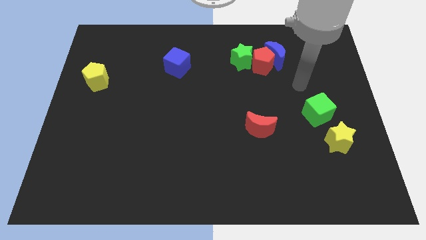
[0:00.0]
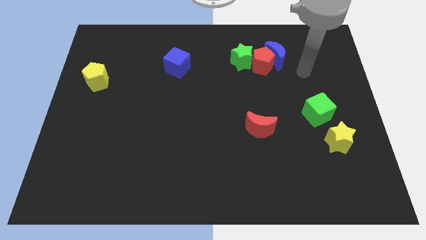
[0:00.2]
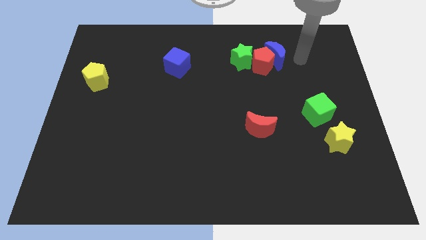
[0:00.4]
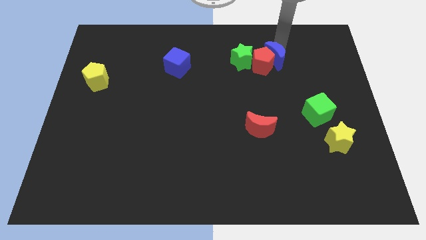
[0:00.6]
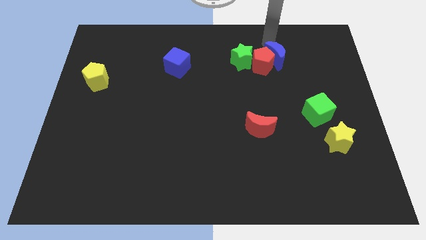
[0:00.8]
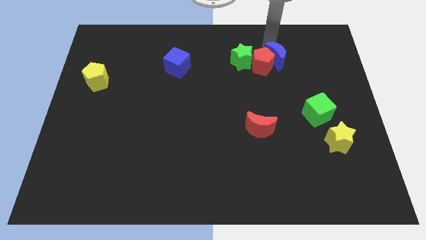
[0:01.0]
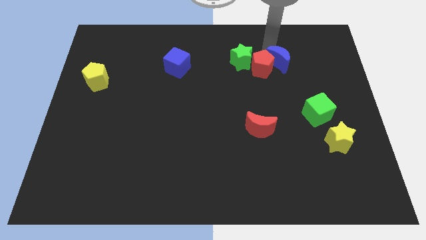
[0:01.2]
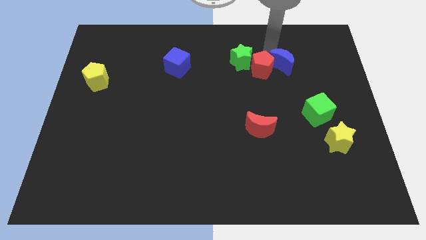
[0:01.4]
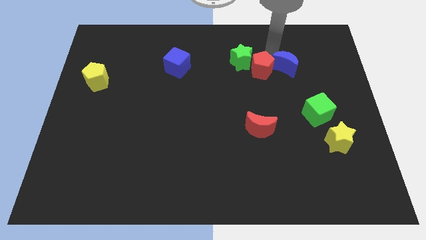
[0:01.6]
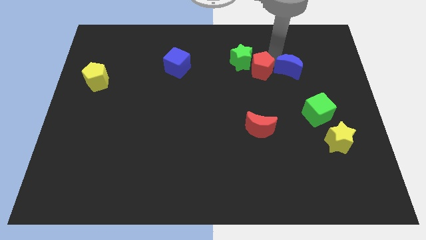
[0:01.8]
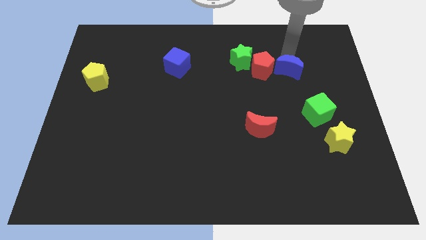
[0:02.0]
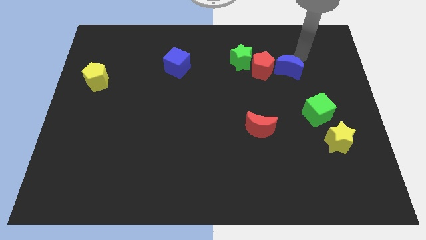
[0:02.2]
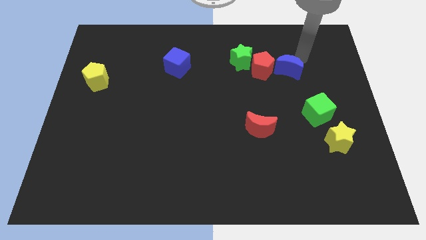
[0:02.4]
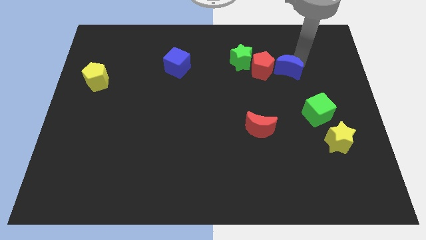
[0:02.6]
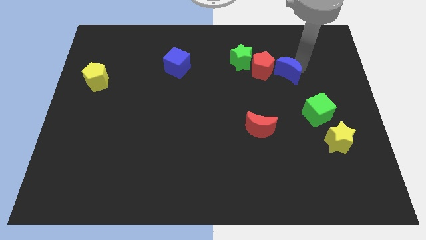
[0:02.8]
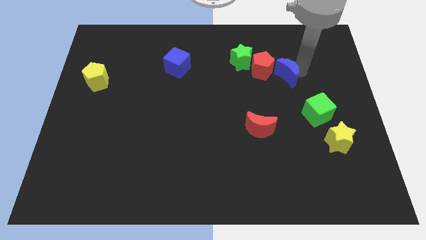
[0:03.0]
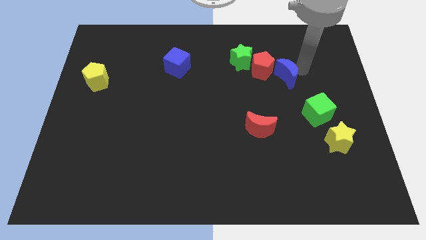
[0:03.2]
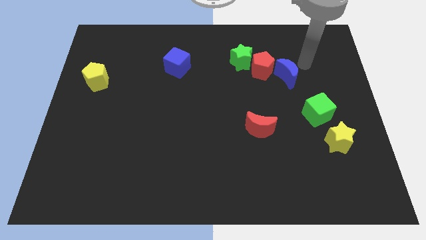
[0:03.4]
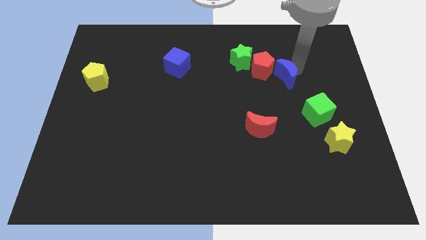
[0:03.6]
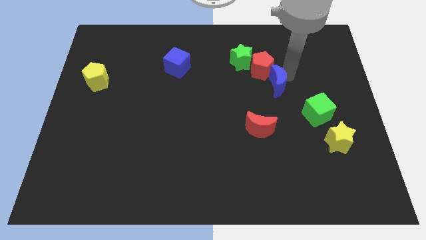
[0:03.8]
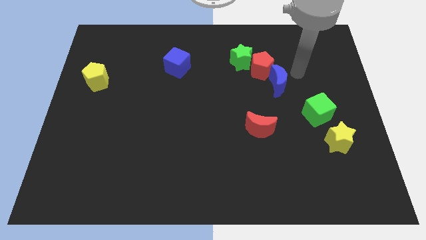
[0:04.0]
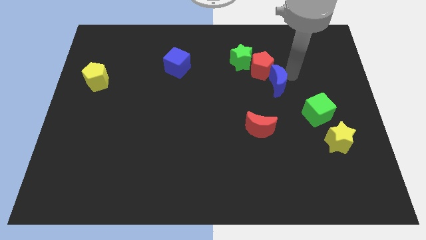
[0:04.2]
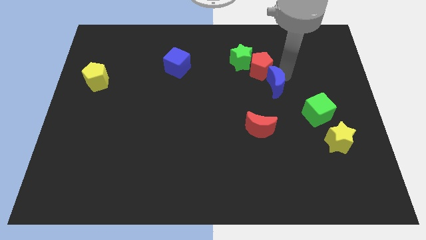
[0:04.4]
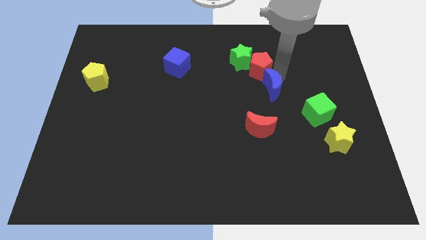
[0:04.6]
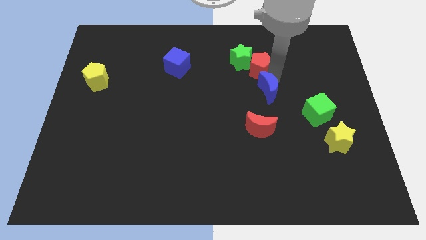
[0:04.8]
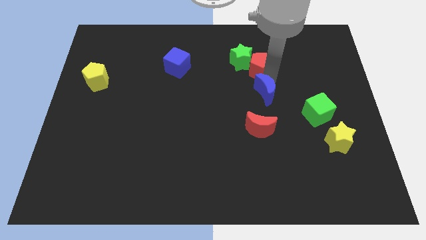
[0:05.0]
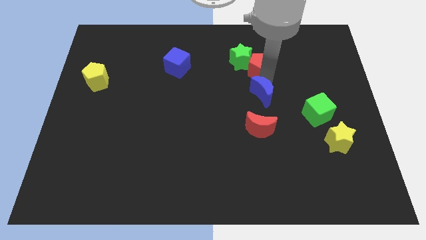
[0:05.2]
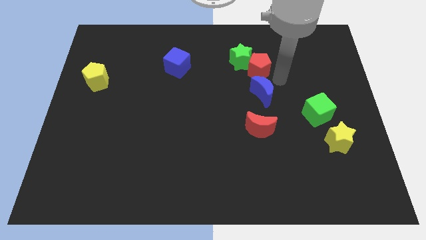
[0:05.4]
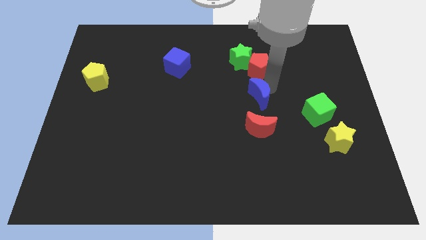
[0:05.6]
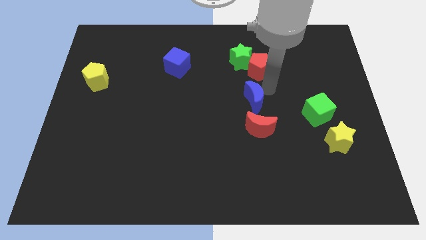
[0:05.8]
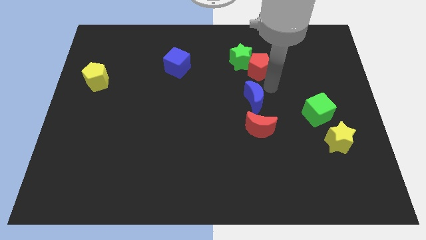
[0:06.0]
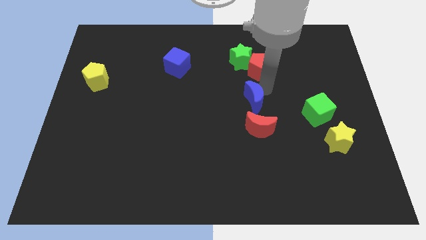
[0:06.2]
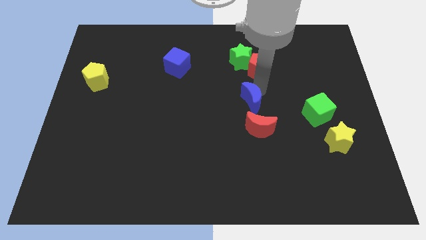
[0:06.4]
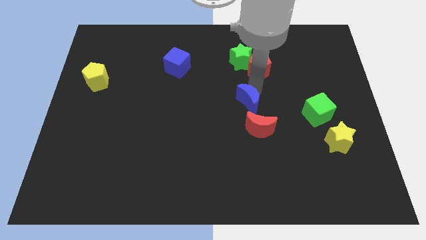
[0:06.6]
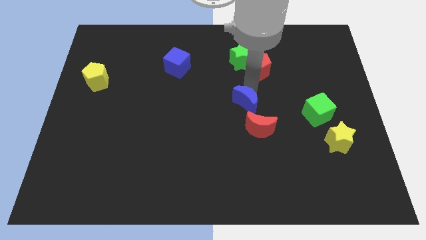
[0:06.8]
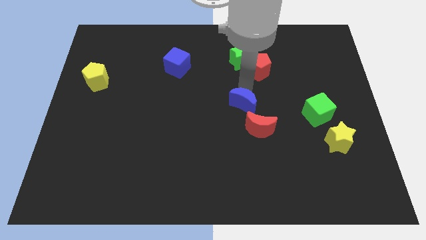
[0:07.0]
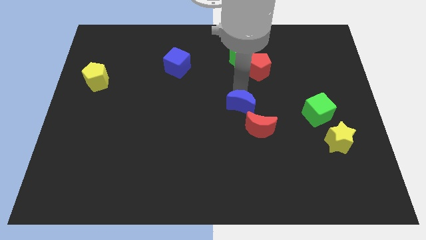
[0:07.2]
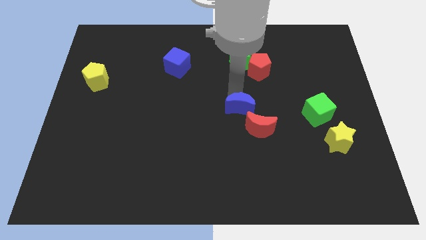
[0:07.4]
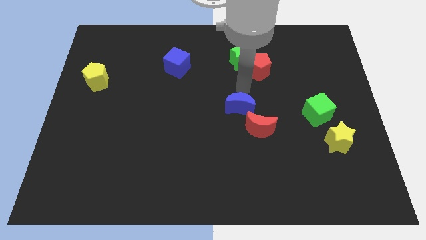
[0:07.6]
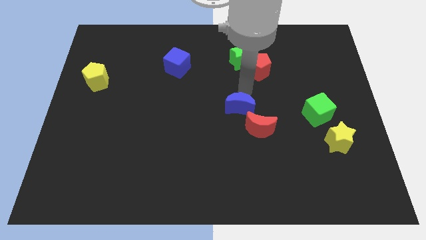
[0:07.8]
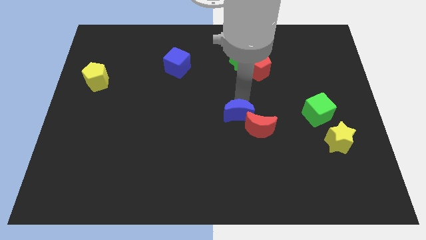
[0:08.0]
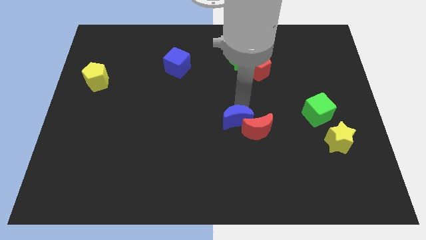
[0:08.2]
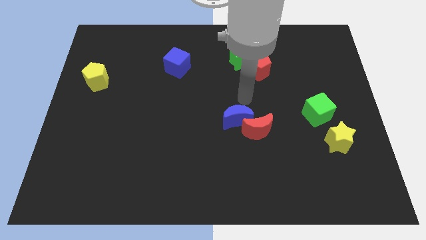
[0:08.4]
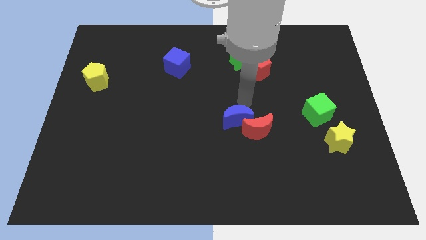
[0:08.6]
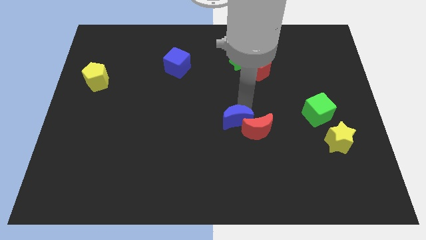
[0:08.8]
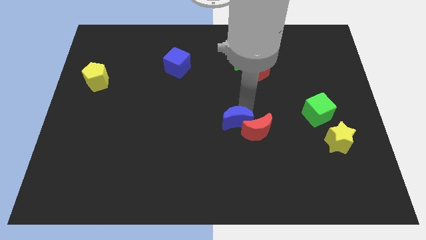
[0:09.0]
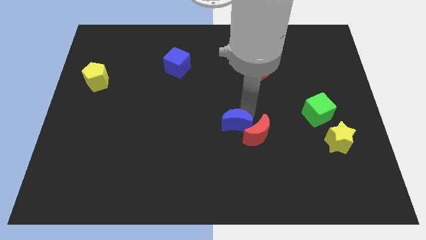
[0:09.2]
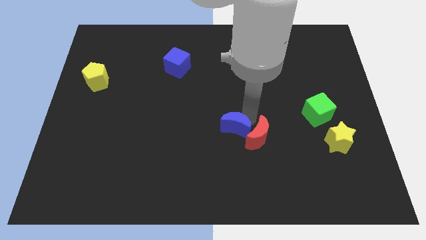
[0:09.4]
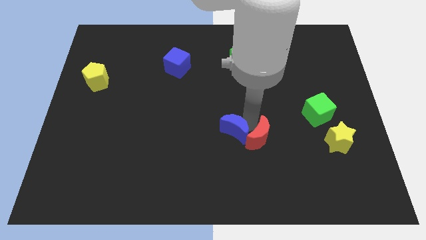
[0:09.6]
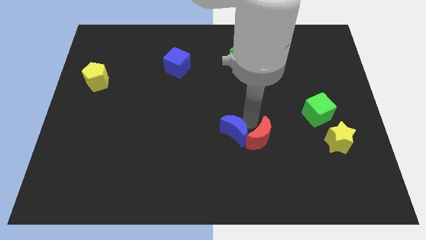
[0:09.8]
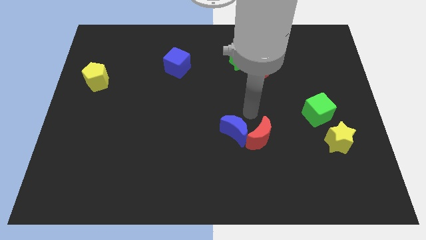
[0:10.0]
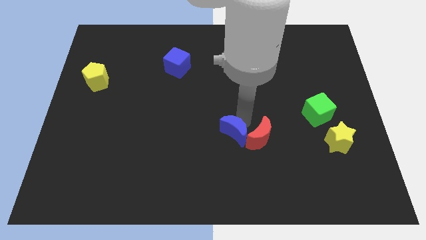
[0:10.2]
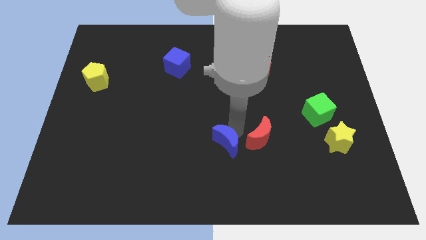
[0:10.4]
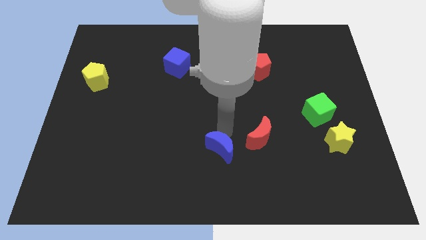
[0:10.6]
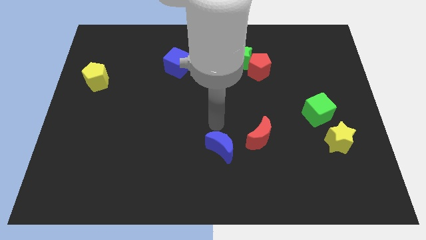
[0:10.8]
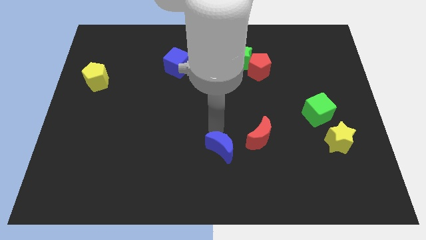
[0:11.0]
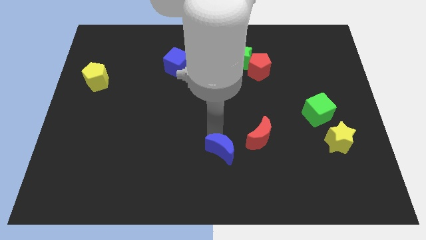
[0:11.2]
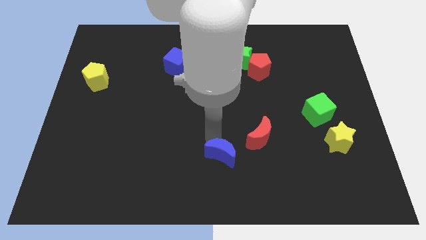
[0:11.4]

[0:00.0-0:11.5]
put the blue moon to the bottom side

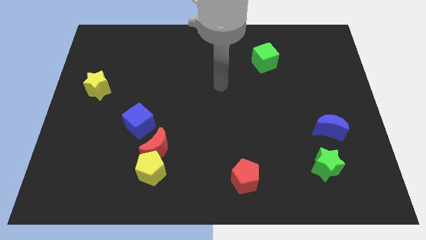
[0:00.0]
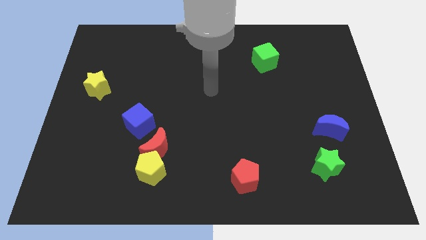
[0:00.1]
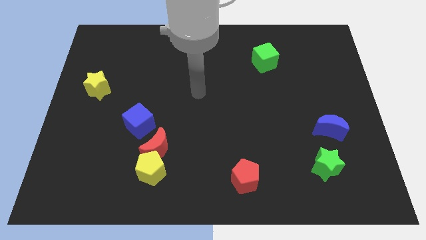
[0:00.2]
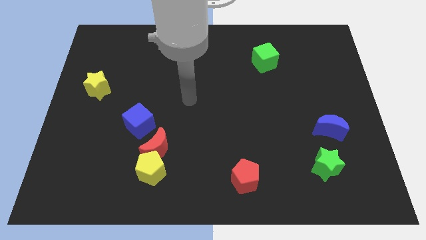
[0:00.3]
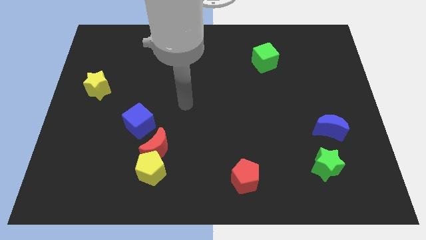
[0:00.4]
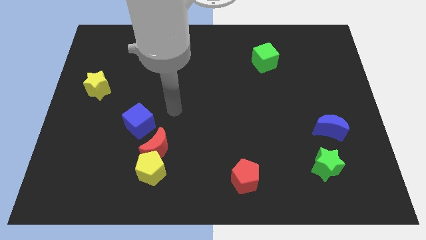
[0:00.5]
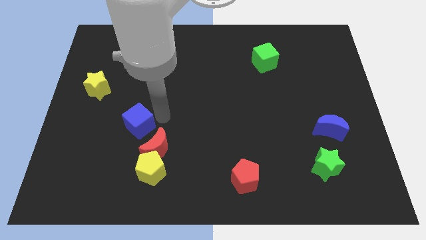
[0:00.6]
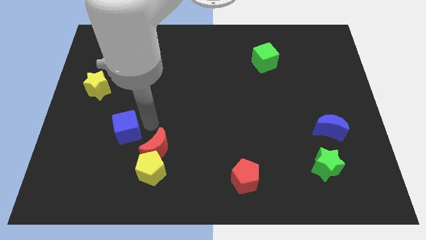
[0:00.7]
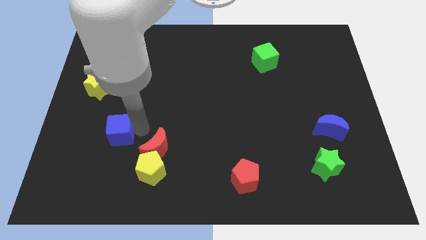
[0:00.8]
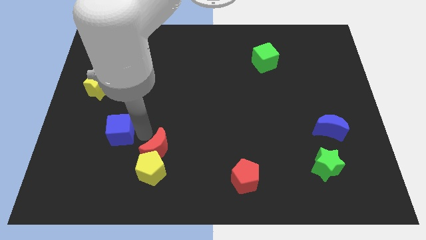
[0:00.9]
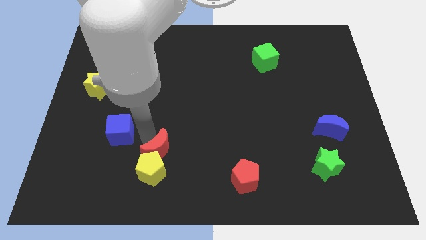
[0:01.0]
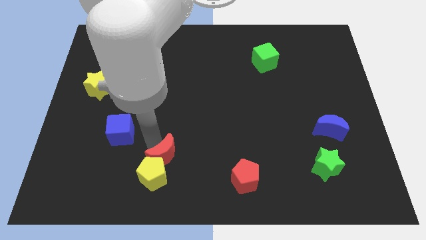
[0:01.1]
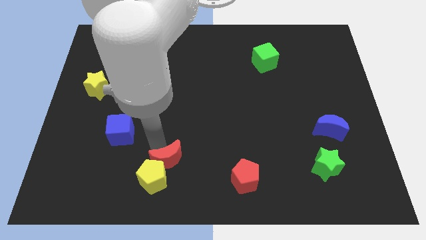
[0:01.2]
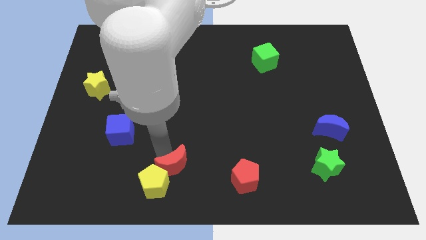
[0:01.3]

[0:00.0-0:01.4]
slide the red moon to the bottom side
